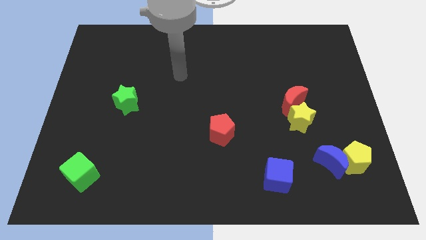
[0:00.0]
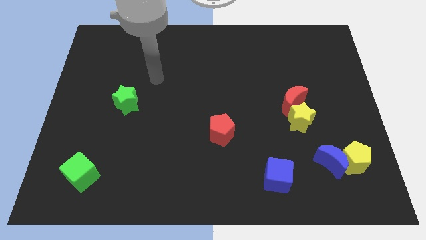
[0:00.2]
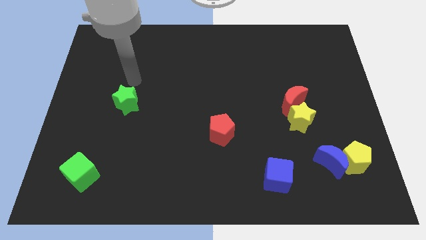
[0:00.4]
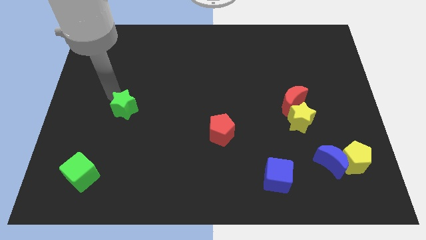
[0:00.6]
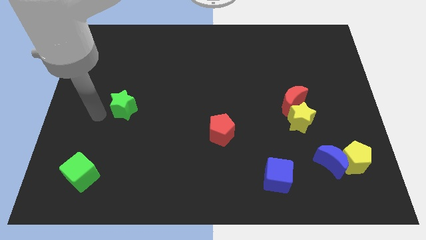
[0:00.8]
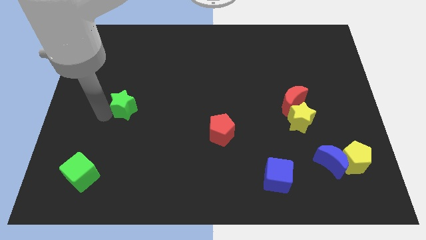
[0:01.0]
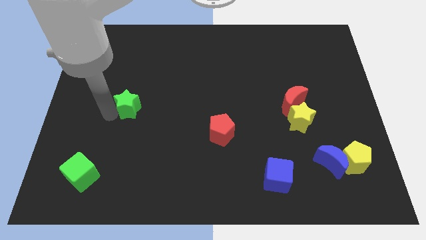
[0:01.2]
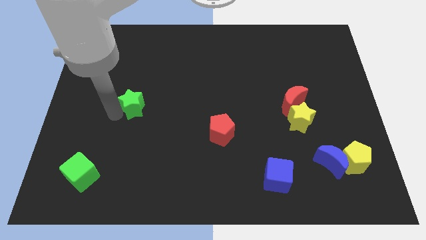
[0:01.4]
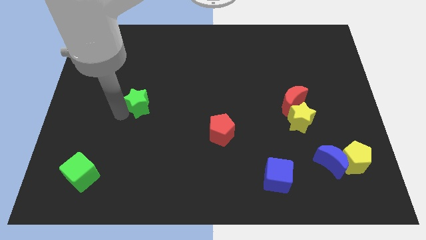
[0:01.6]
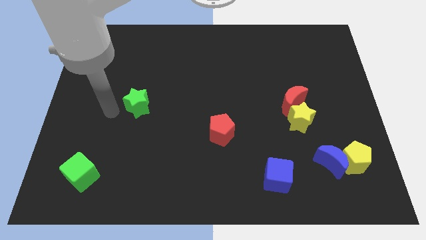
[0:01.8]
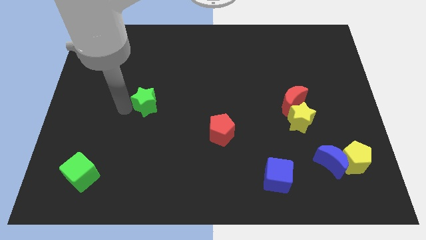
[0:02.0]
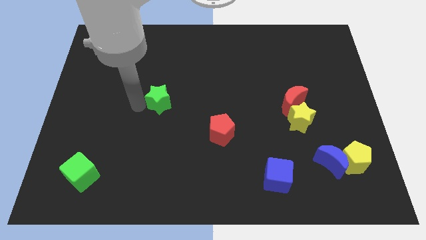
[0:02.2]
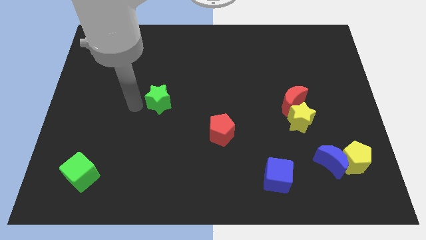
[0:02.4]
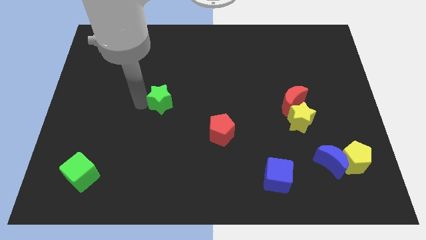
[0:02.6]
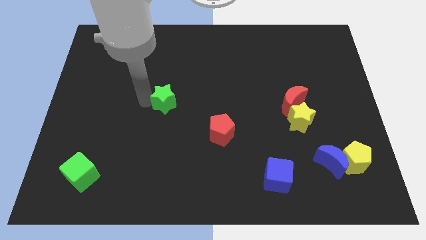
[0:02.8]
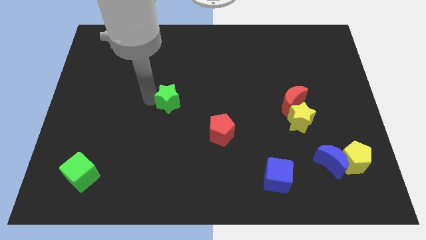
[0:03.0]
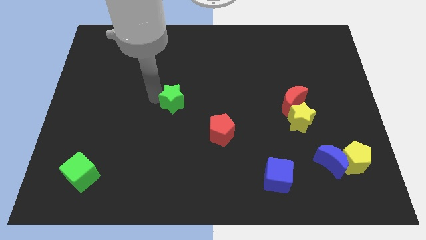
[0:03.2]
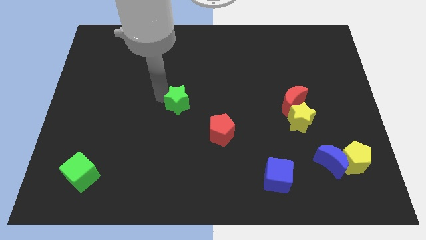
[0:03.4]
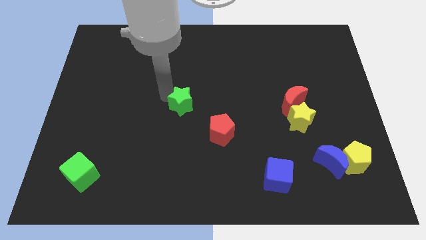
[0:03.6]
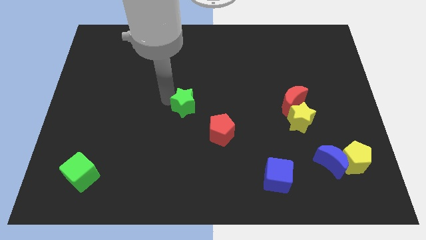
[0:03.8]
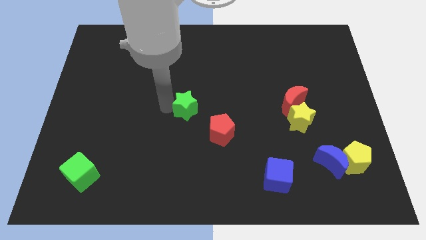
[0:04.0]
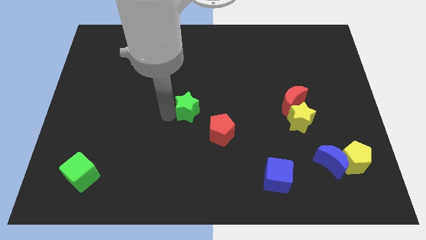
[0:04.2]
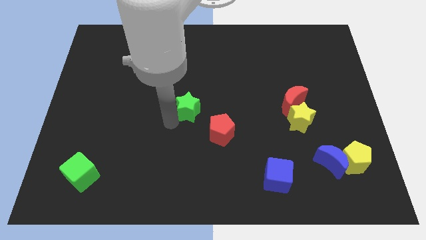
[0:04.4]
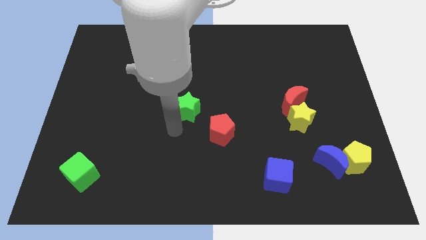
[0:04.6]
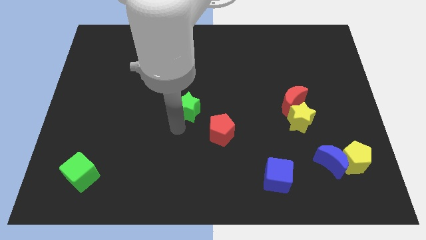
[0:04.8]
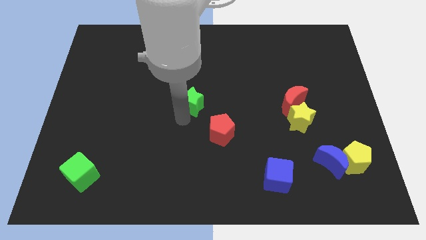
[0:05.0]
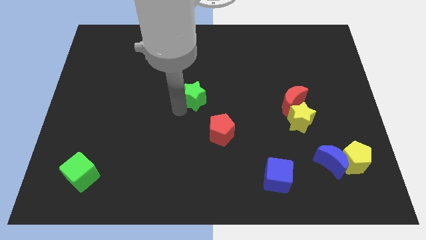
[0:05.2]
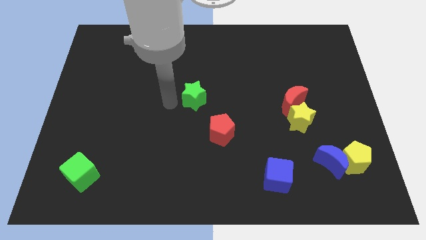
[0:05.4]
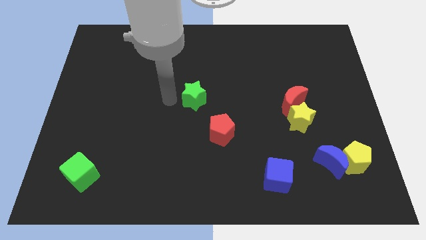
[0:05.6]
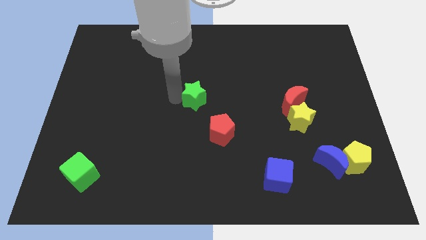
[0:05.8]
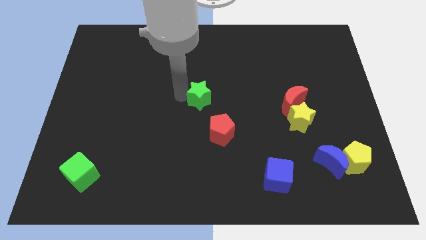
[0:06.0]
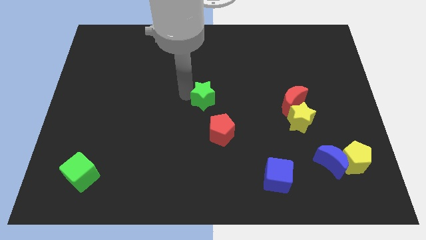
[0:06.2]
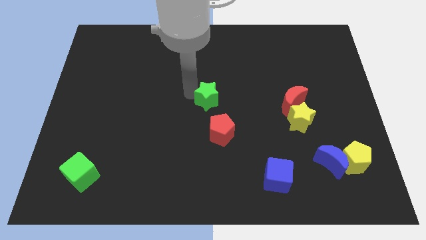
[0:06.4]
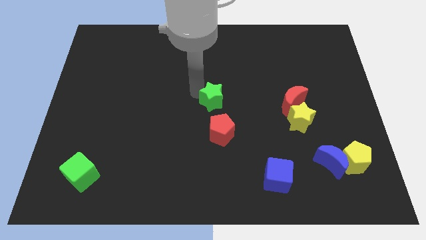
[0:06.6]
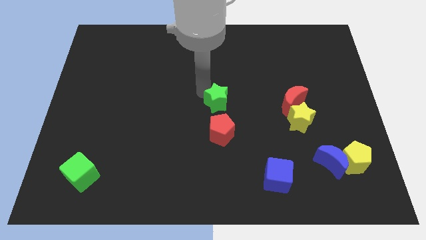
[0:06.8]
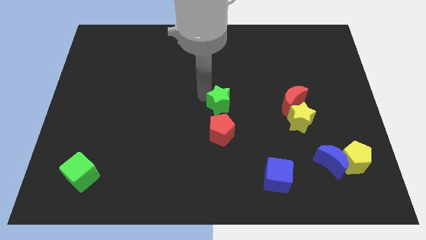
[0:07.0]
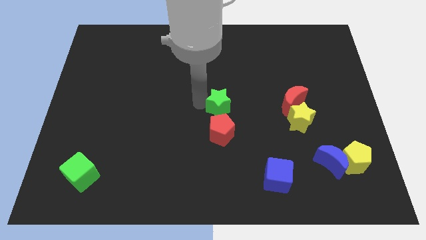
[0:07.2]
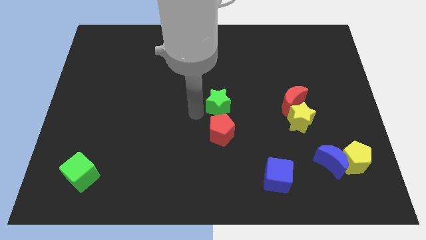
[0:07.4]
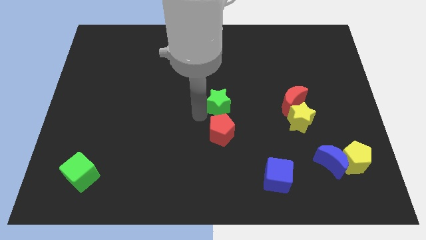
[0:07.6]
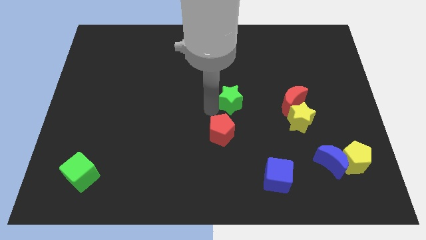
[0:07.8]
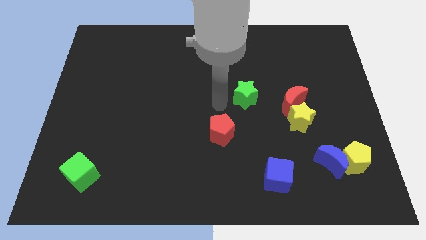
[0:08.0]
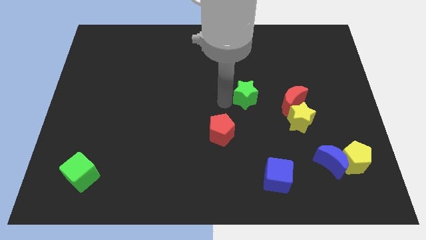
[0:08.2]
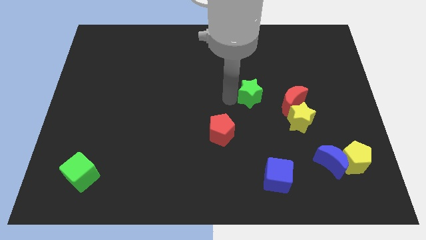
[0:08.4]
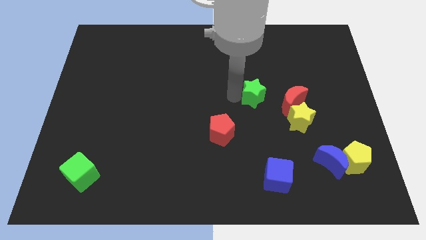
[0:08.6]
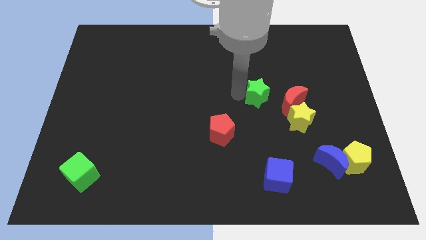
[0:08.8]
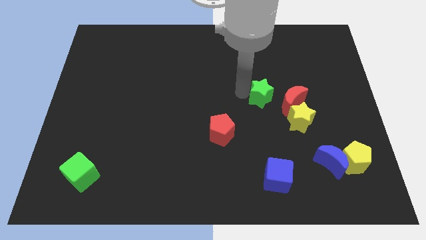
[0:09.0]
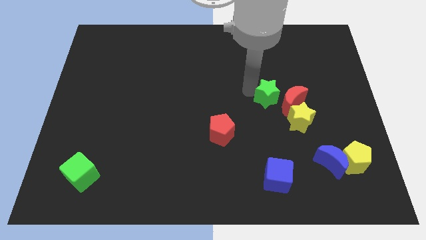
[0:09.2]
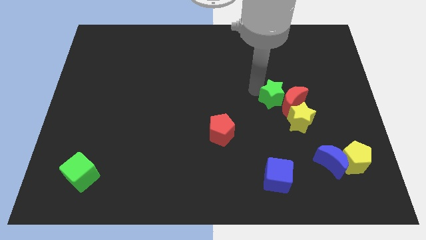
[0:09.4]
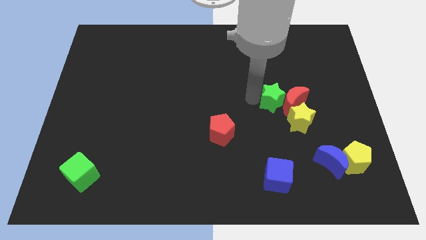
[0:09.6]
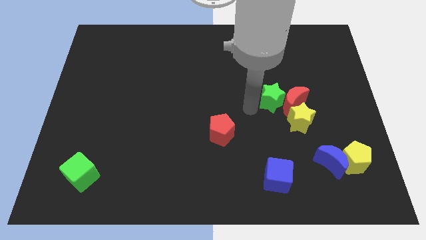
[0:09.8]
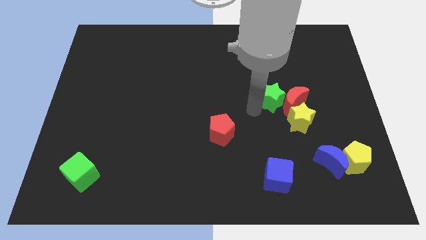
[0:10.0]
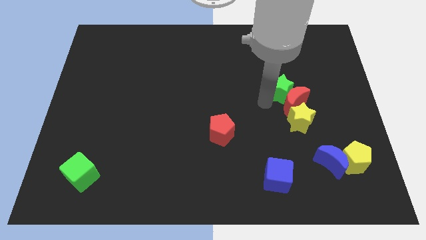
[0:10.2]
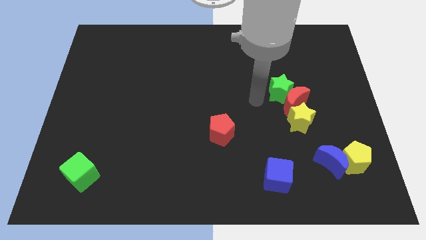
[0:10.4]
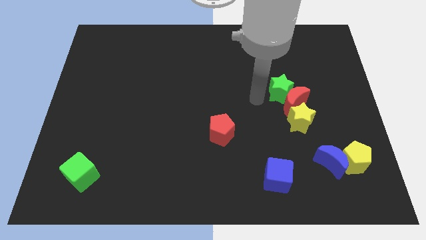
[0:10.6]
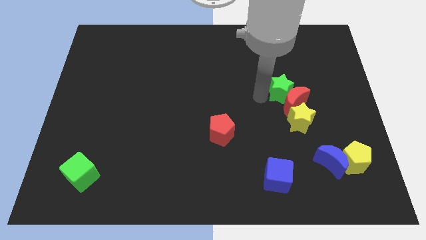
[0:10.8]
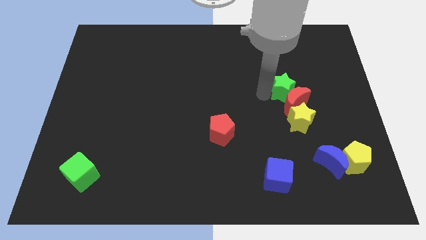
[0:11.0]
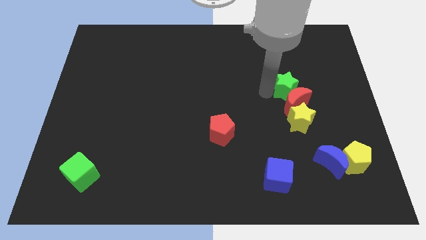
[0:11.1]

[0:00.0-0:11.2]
push the green star diagonally up and to the right of the red moon

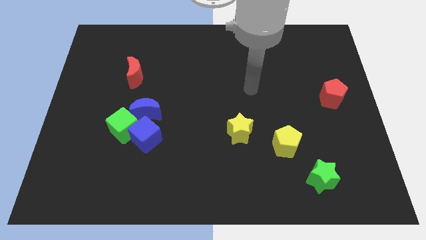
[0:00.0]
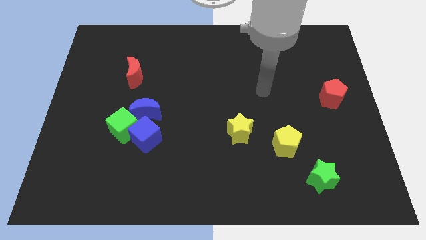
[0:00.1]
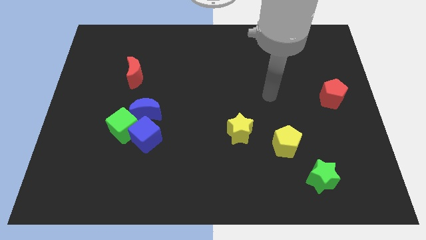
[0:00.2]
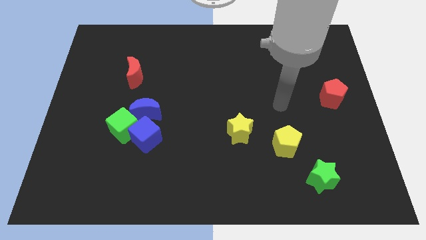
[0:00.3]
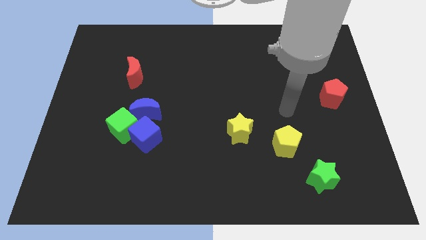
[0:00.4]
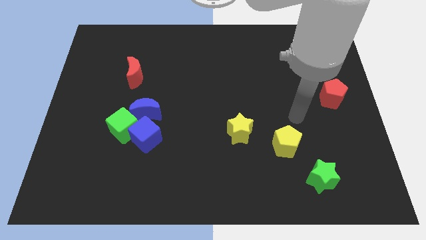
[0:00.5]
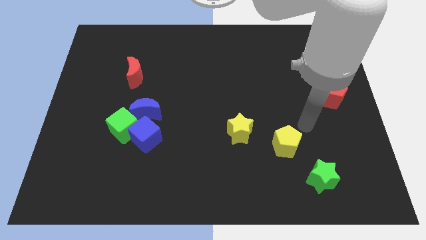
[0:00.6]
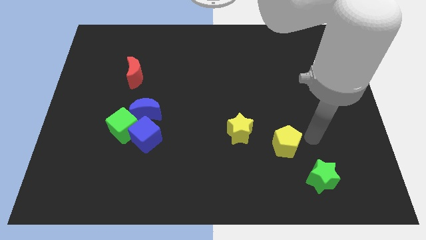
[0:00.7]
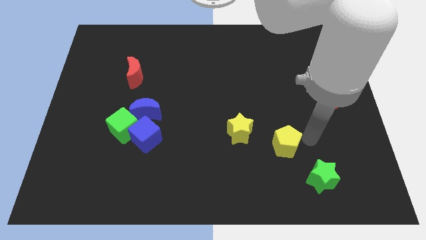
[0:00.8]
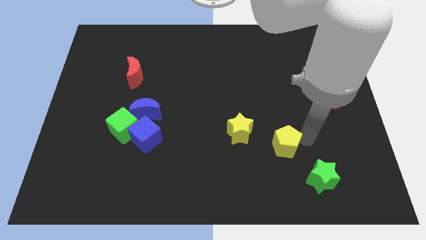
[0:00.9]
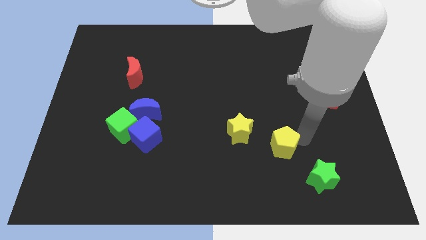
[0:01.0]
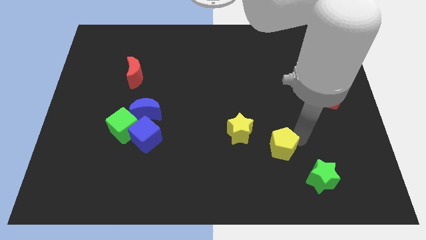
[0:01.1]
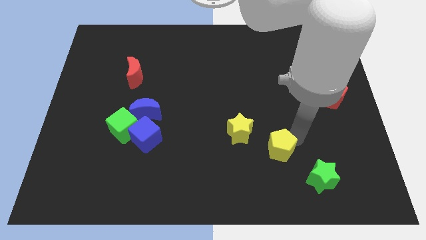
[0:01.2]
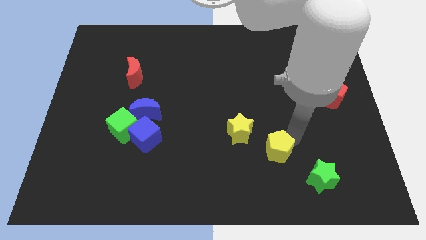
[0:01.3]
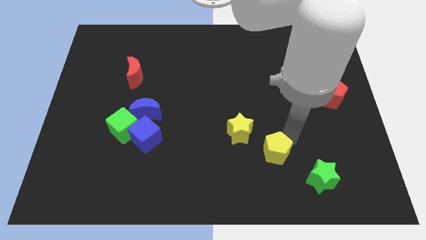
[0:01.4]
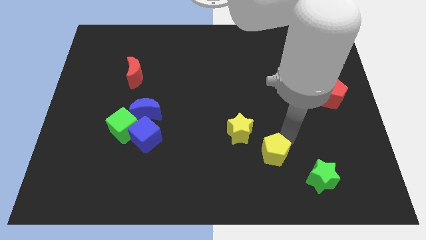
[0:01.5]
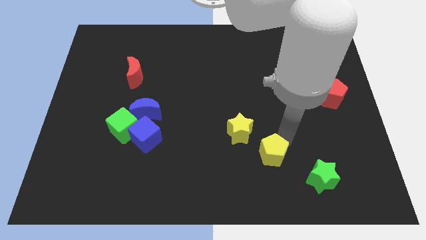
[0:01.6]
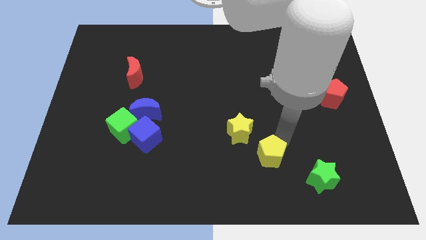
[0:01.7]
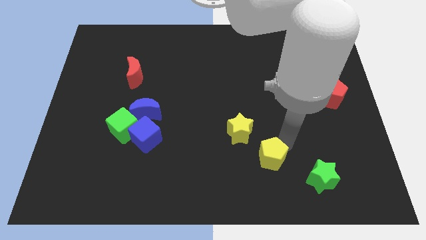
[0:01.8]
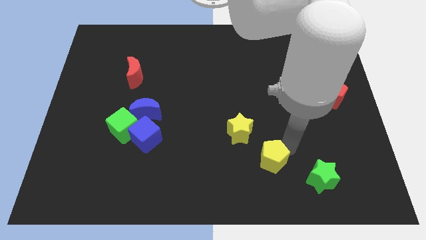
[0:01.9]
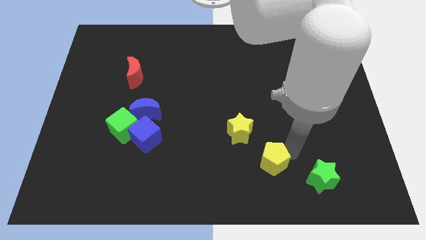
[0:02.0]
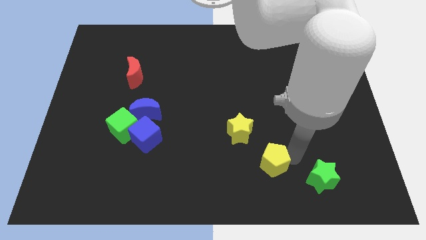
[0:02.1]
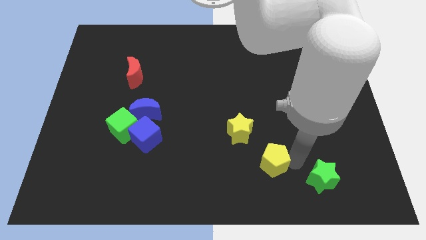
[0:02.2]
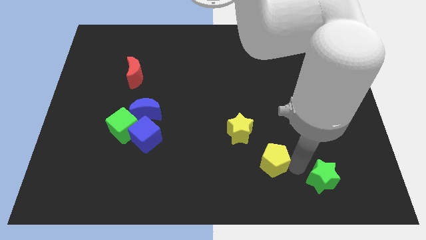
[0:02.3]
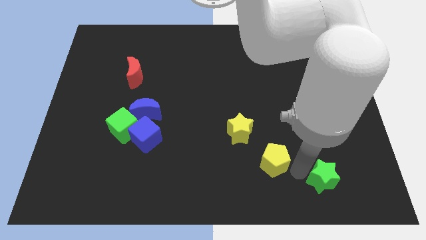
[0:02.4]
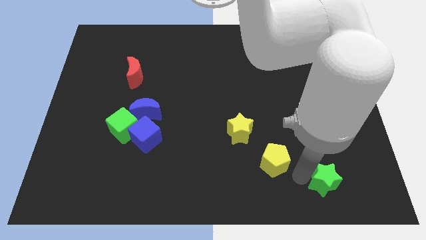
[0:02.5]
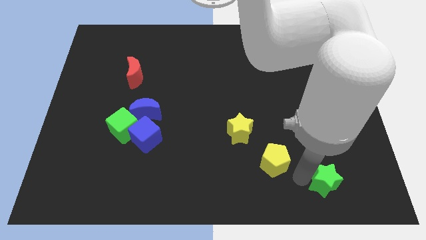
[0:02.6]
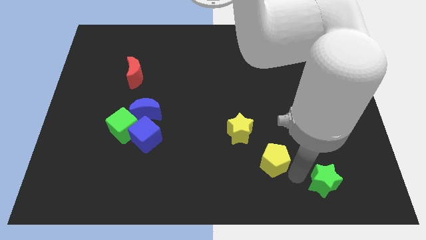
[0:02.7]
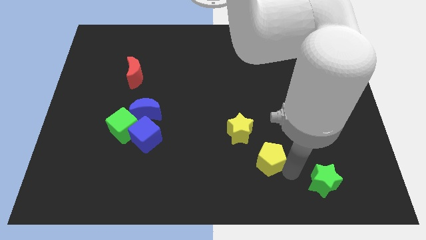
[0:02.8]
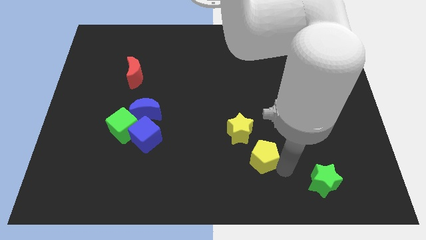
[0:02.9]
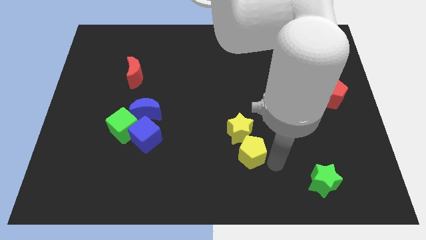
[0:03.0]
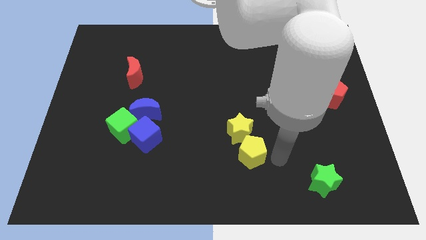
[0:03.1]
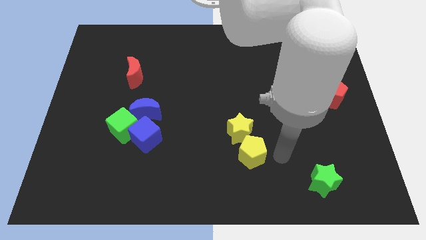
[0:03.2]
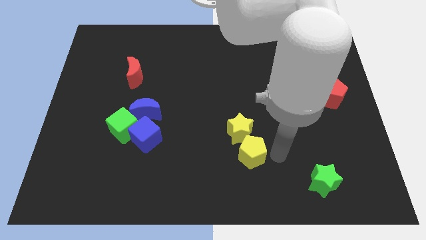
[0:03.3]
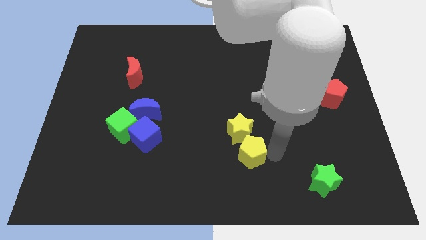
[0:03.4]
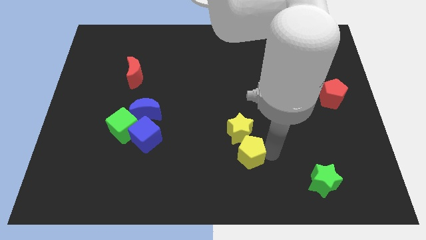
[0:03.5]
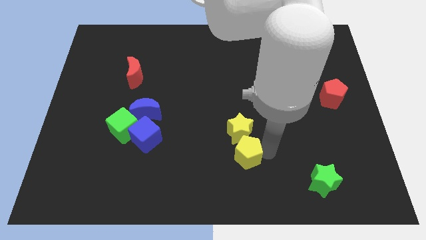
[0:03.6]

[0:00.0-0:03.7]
slide the yellow pentagon diagonally down and to the left of the yellow star
